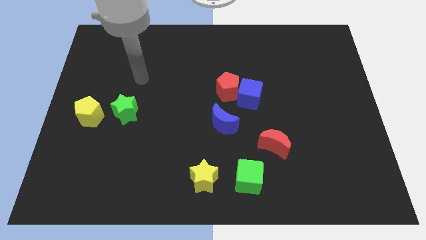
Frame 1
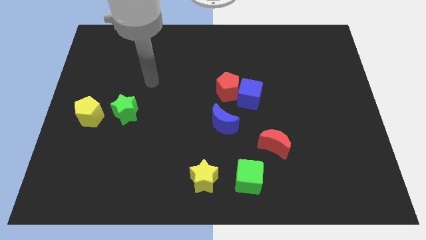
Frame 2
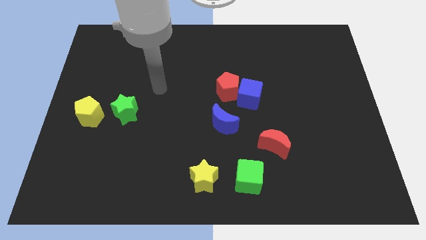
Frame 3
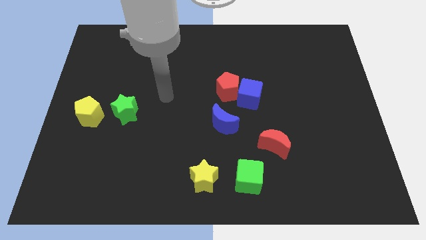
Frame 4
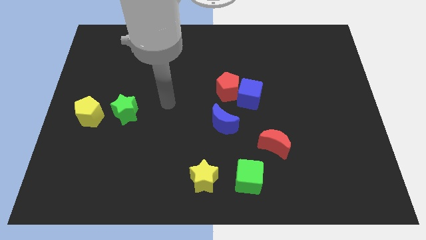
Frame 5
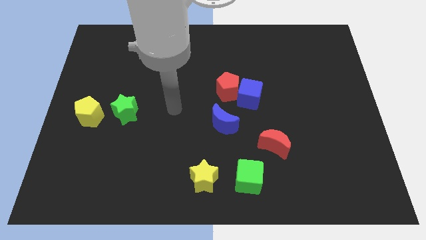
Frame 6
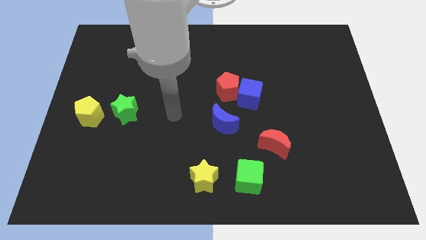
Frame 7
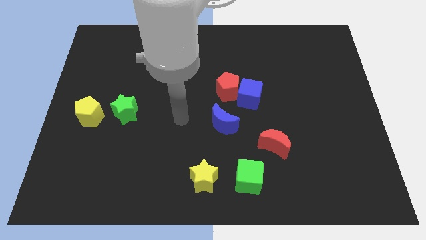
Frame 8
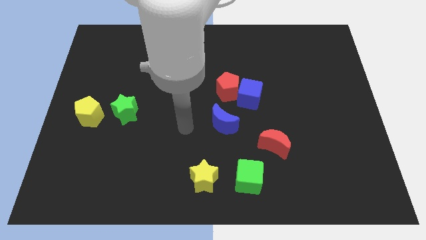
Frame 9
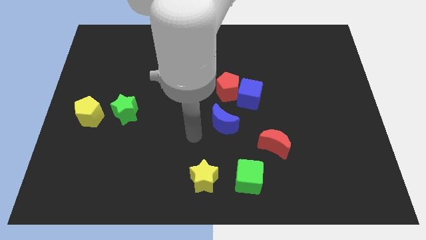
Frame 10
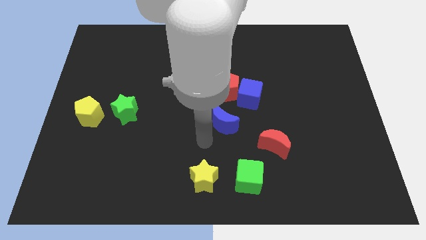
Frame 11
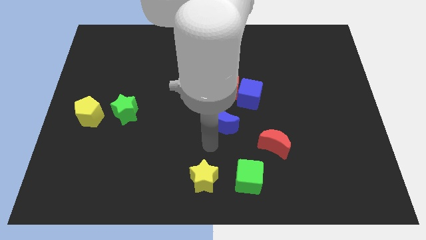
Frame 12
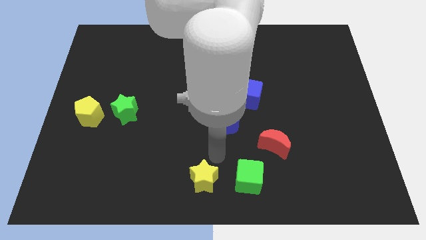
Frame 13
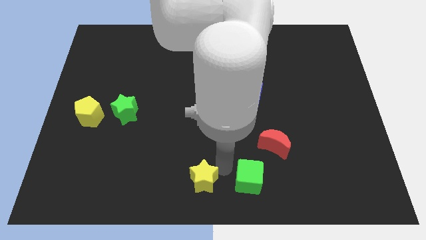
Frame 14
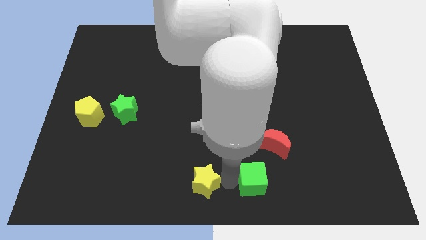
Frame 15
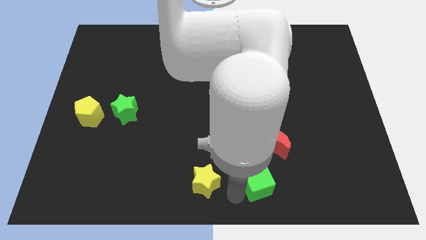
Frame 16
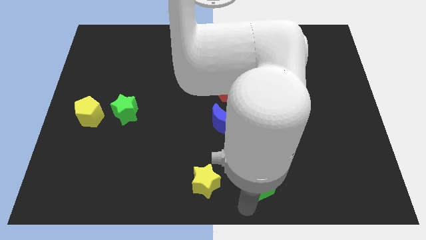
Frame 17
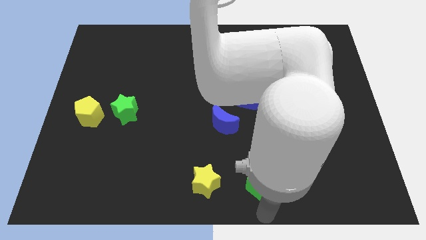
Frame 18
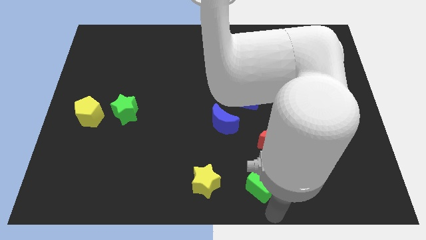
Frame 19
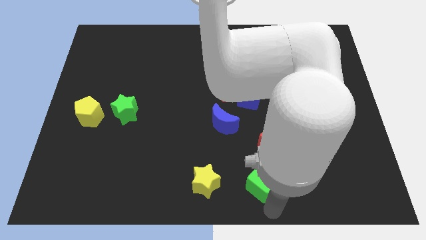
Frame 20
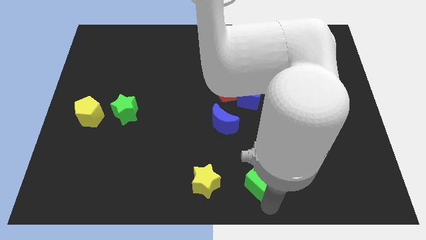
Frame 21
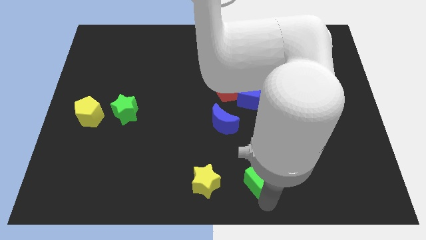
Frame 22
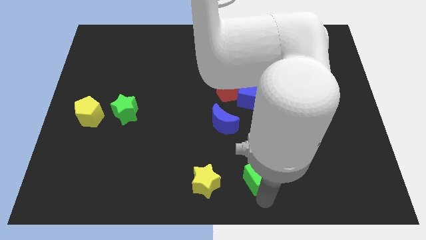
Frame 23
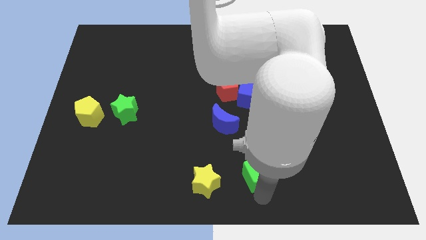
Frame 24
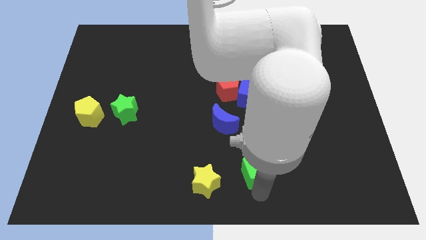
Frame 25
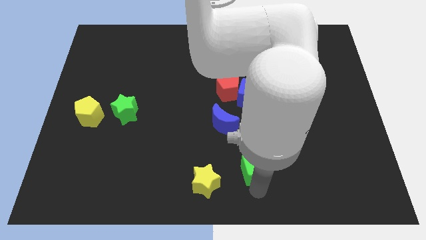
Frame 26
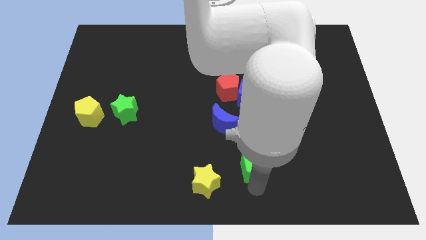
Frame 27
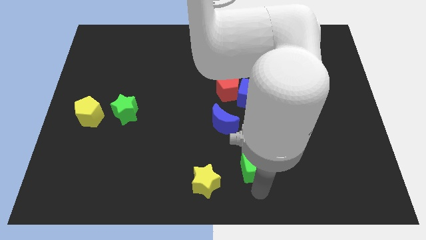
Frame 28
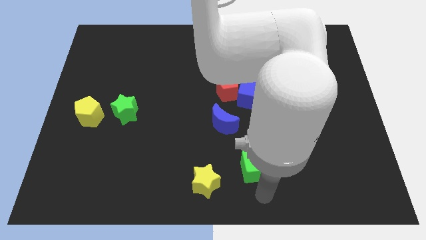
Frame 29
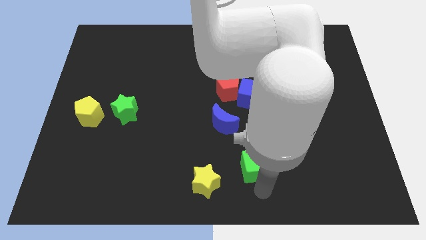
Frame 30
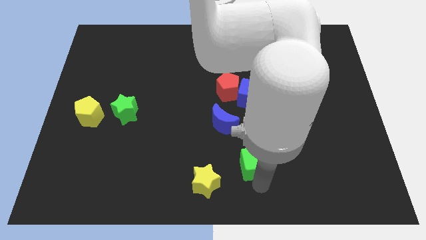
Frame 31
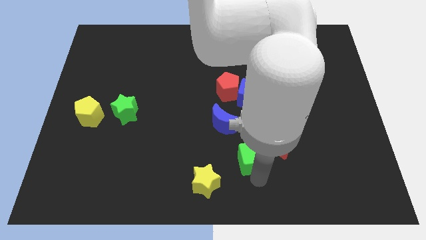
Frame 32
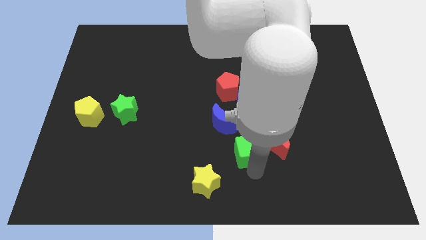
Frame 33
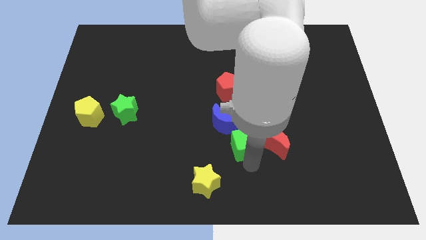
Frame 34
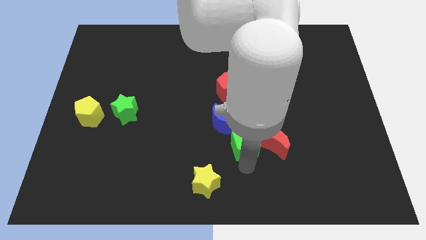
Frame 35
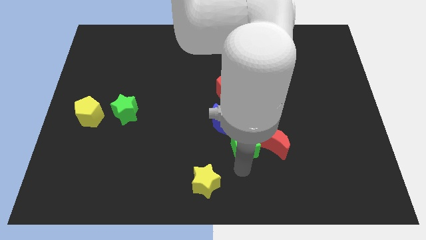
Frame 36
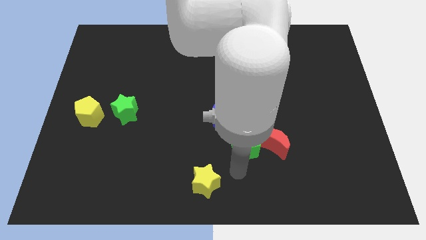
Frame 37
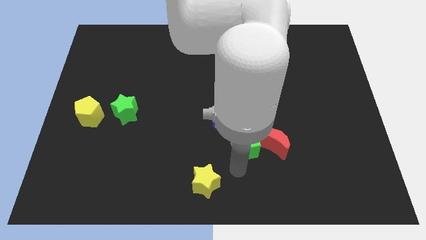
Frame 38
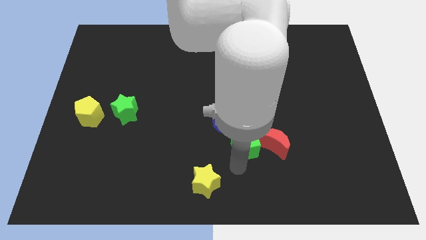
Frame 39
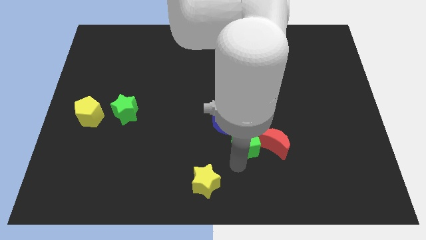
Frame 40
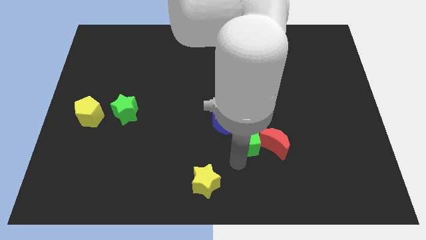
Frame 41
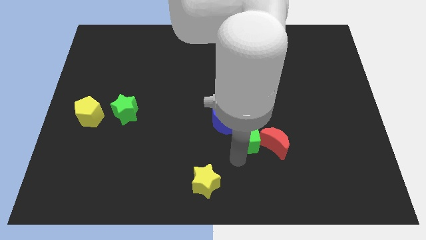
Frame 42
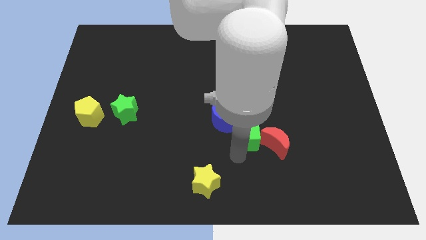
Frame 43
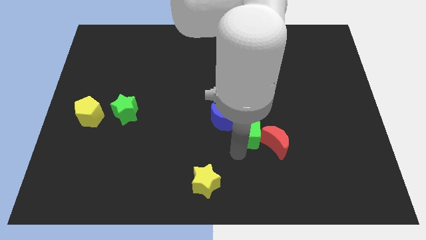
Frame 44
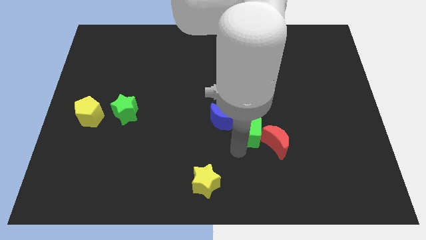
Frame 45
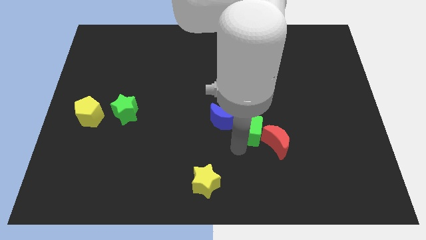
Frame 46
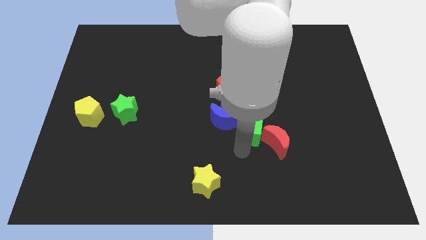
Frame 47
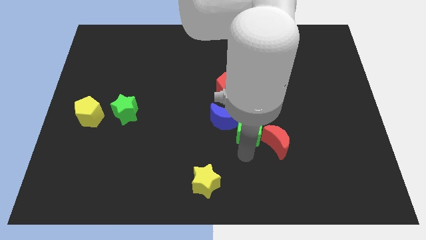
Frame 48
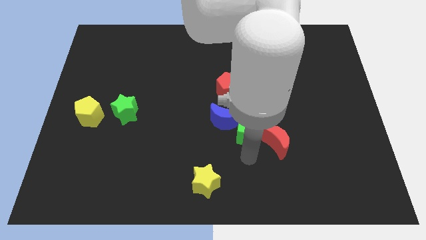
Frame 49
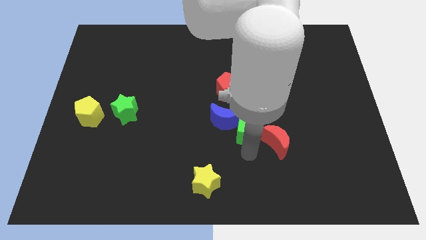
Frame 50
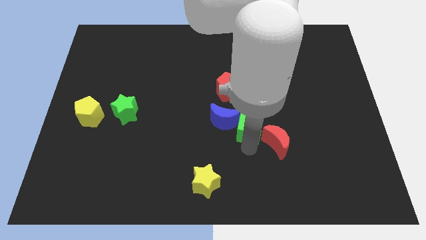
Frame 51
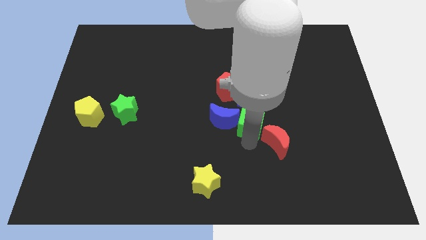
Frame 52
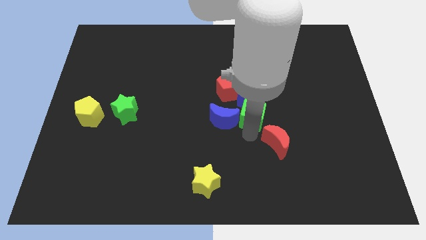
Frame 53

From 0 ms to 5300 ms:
move the green cube close to the blue cube

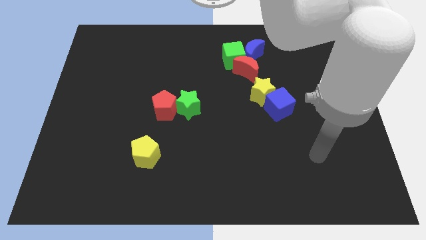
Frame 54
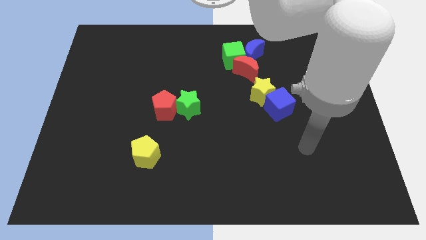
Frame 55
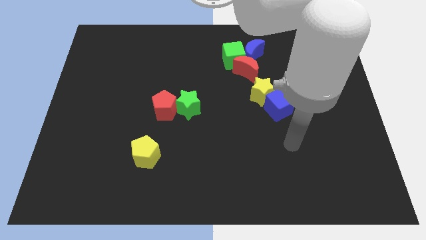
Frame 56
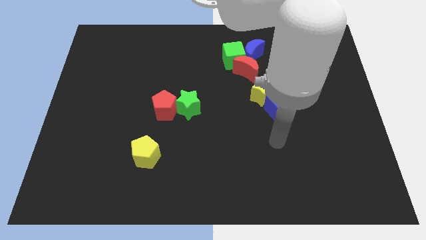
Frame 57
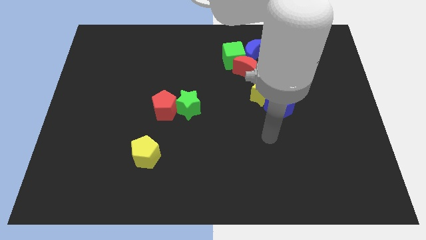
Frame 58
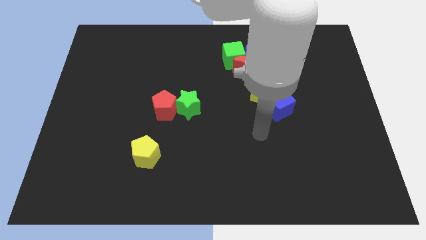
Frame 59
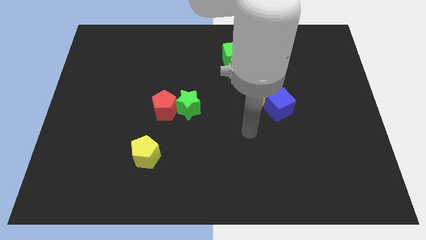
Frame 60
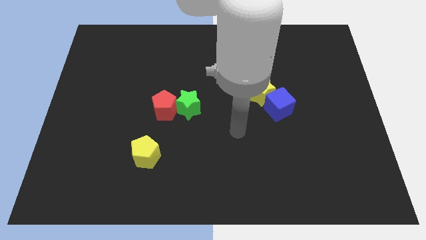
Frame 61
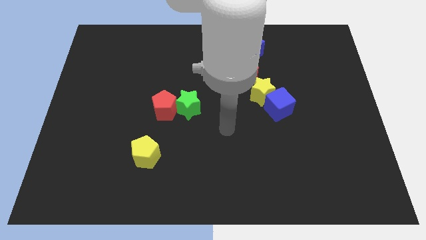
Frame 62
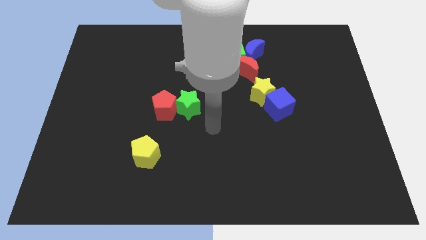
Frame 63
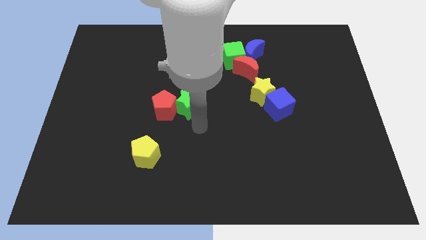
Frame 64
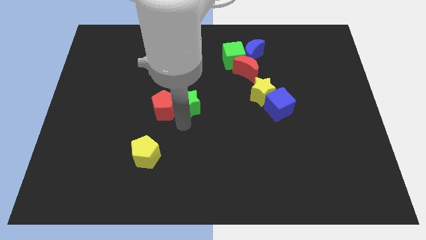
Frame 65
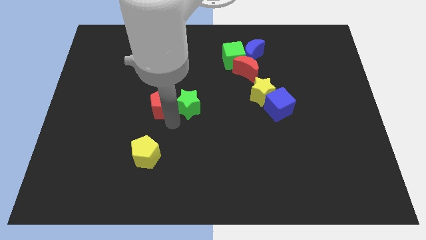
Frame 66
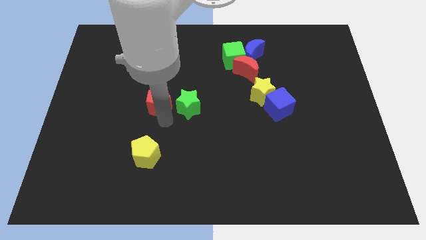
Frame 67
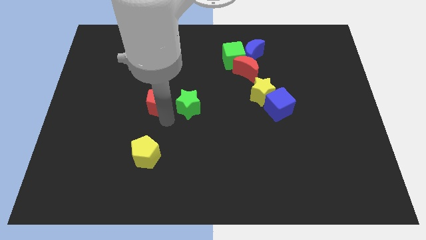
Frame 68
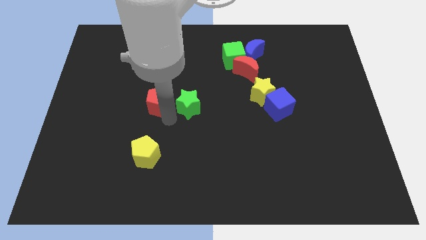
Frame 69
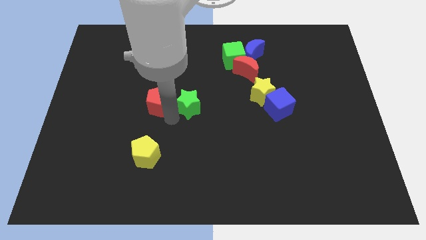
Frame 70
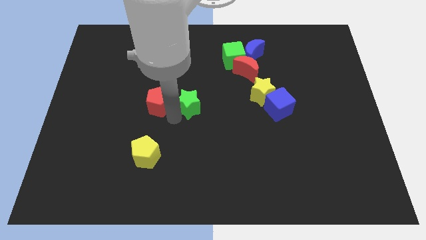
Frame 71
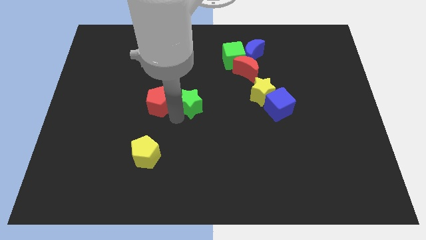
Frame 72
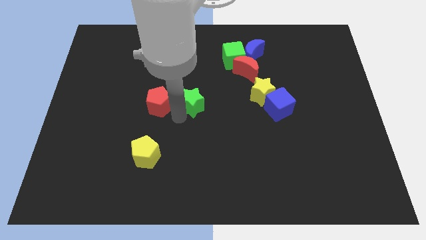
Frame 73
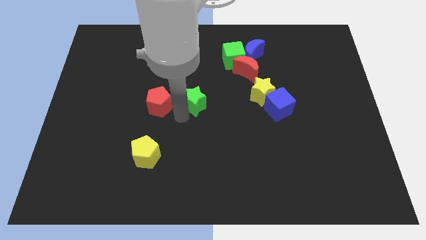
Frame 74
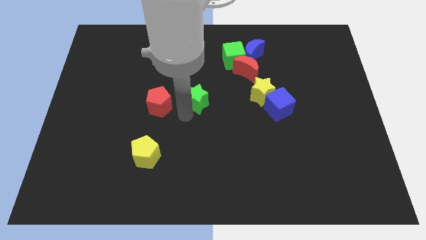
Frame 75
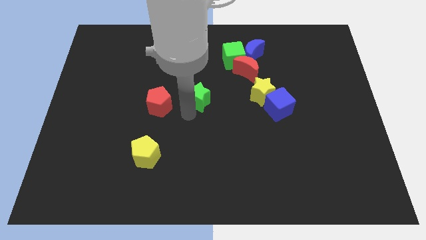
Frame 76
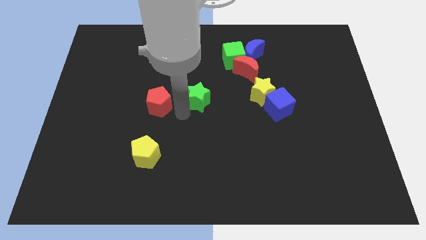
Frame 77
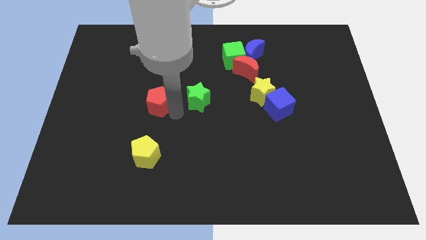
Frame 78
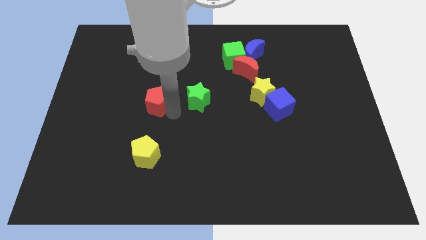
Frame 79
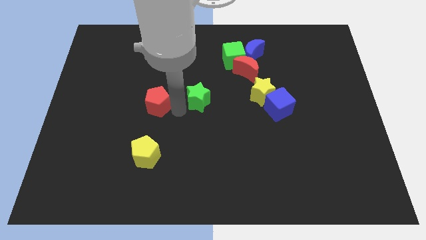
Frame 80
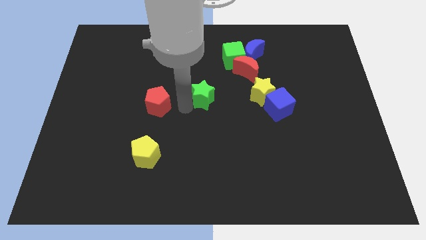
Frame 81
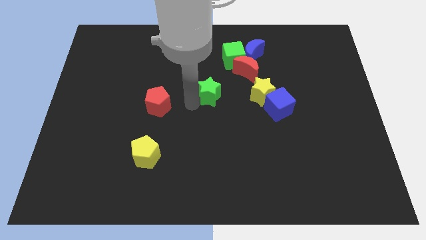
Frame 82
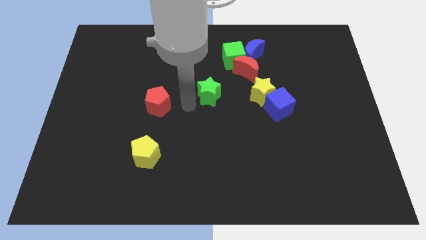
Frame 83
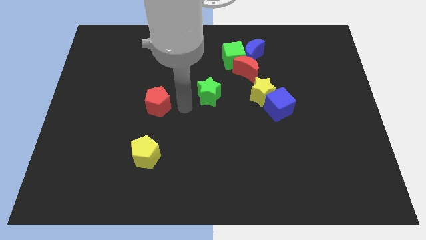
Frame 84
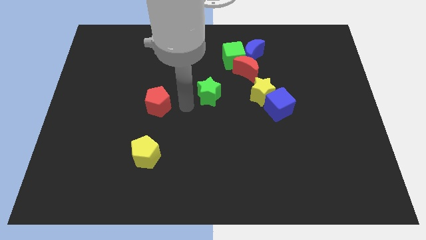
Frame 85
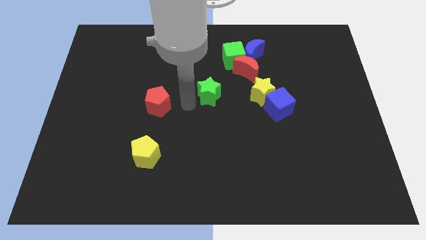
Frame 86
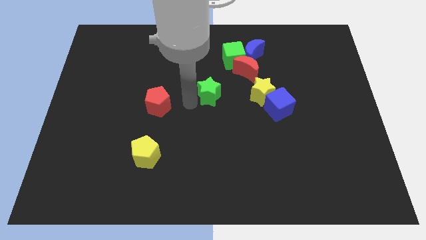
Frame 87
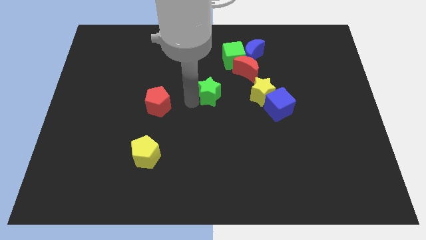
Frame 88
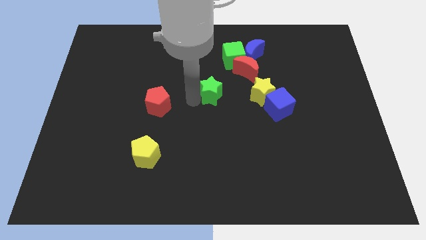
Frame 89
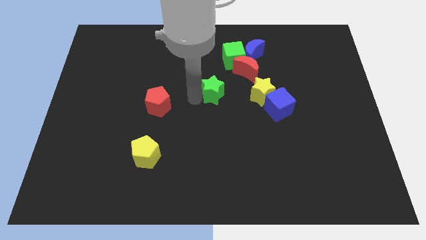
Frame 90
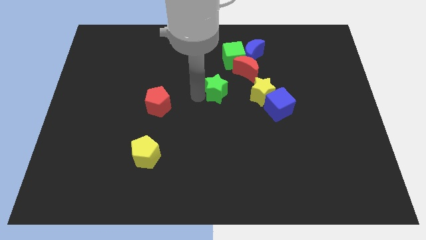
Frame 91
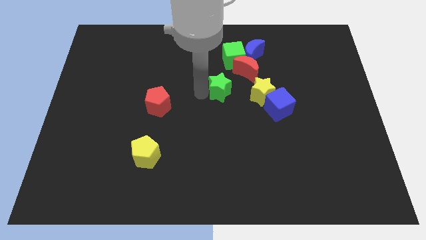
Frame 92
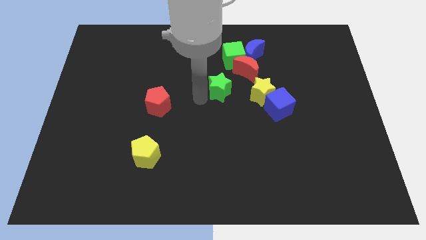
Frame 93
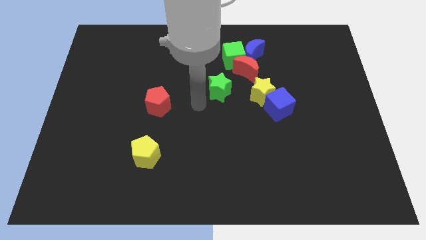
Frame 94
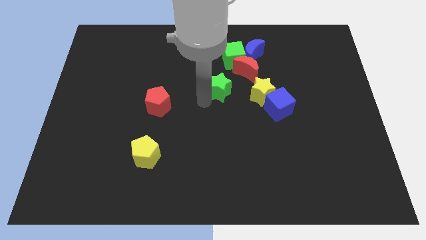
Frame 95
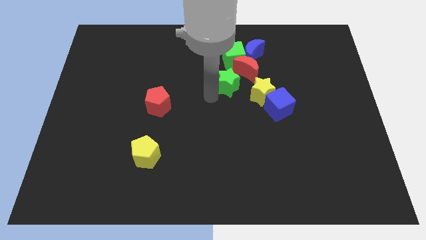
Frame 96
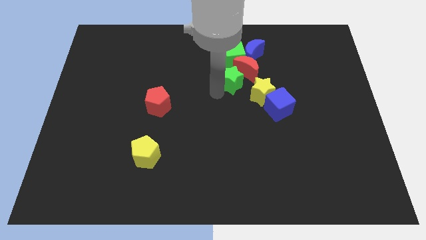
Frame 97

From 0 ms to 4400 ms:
put the green star close to the red moon
